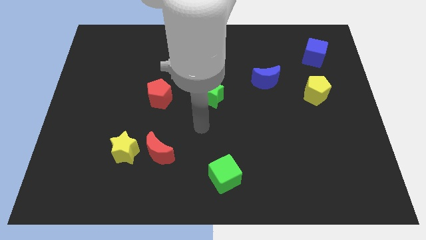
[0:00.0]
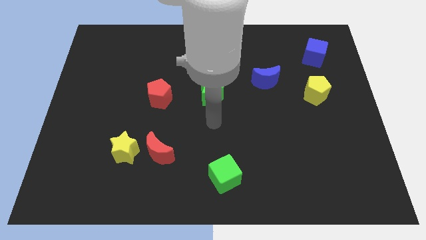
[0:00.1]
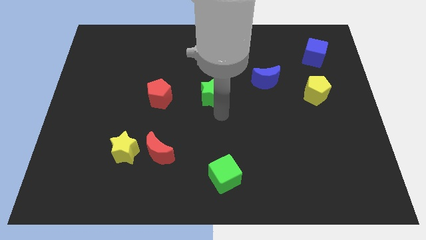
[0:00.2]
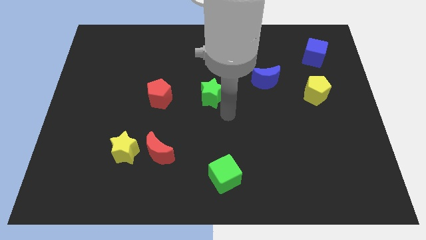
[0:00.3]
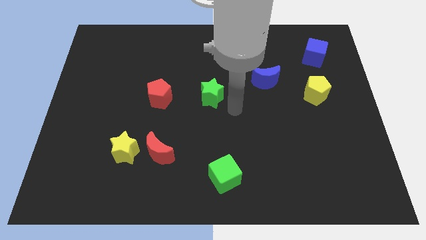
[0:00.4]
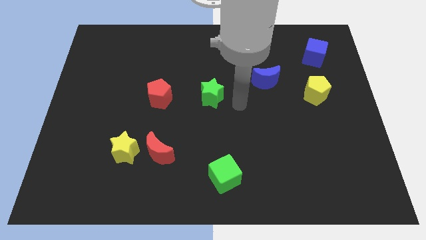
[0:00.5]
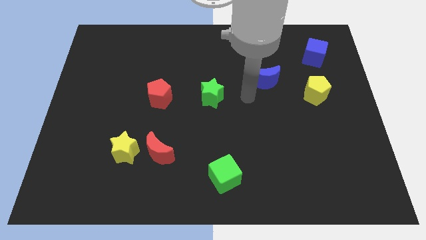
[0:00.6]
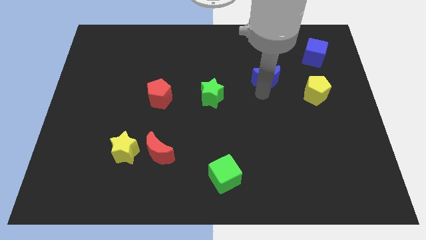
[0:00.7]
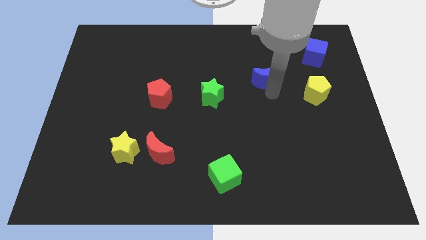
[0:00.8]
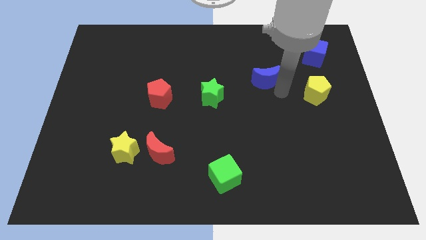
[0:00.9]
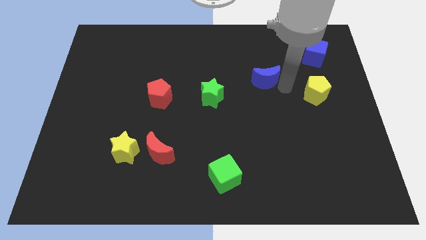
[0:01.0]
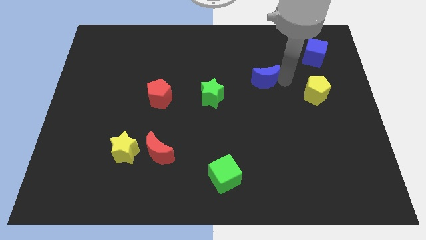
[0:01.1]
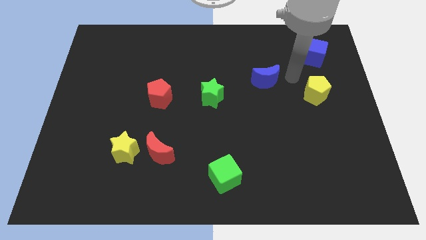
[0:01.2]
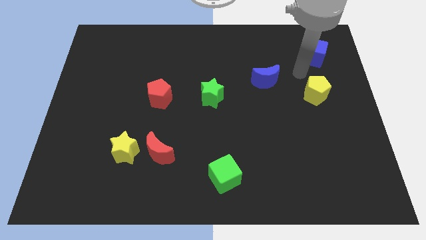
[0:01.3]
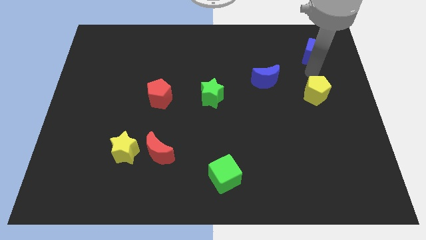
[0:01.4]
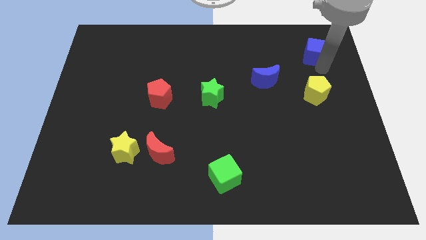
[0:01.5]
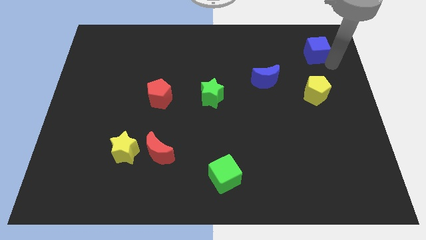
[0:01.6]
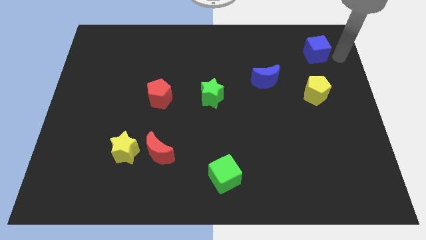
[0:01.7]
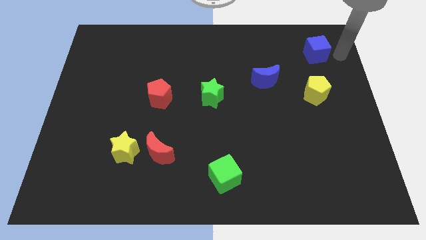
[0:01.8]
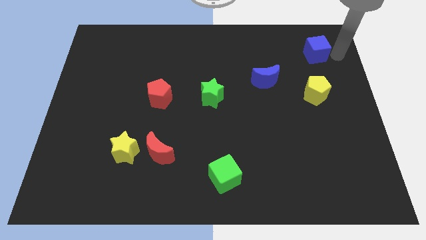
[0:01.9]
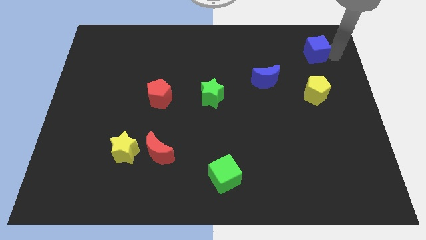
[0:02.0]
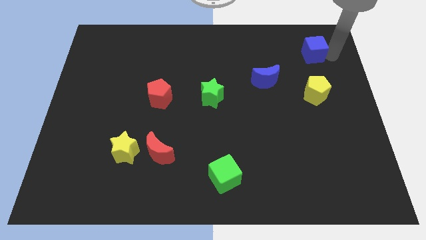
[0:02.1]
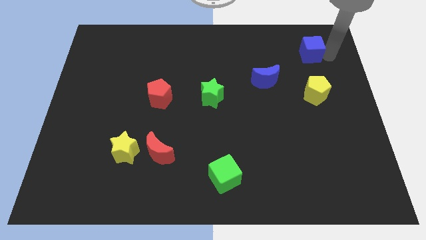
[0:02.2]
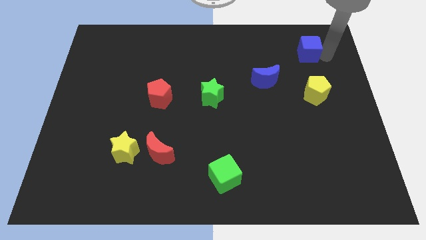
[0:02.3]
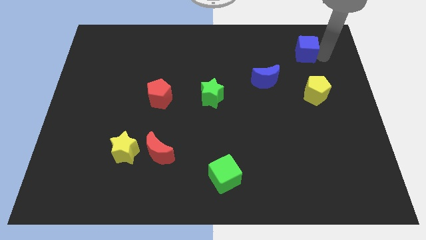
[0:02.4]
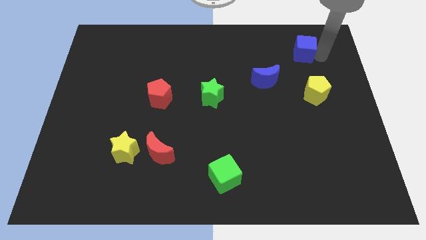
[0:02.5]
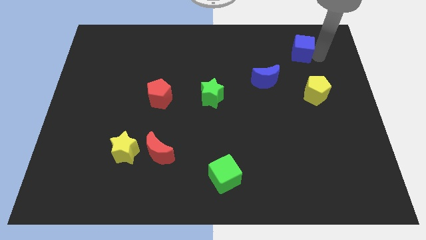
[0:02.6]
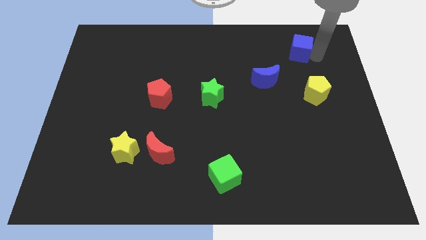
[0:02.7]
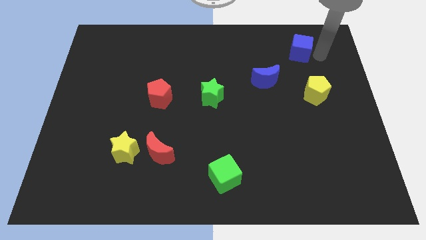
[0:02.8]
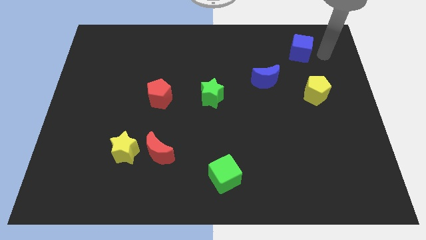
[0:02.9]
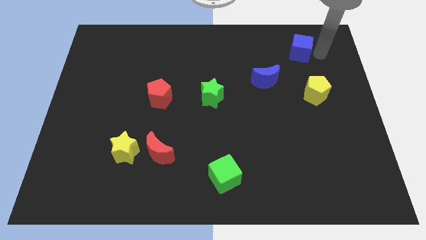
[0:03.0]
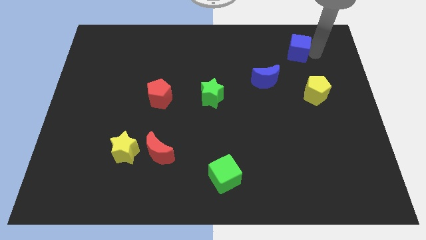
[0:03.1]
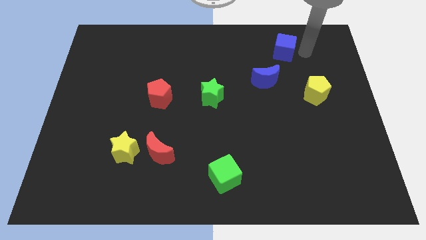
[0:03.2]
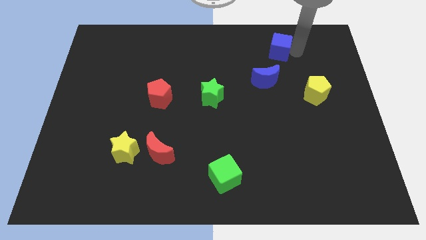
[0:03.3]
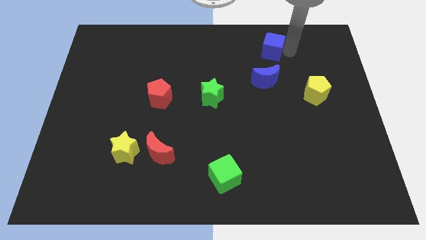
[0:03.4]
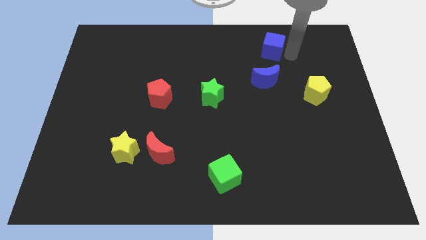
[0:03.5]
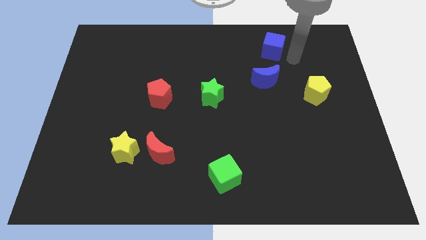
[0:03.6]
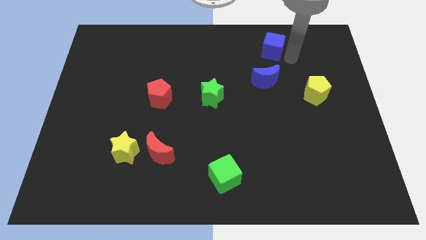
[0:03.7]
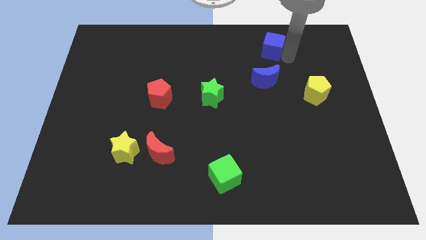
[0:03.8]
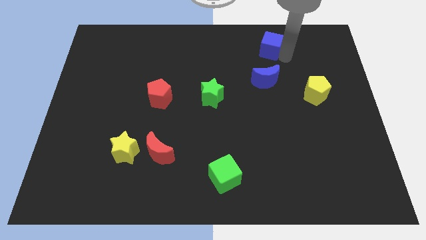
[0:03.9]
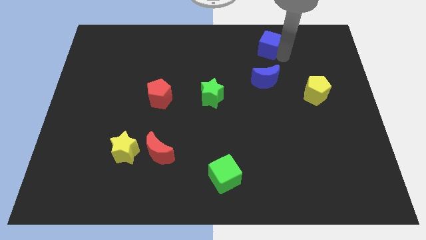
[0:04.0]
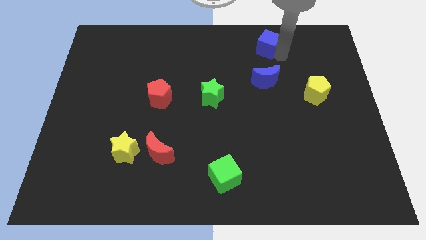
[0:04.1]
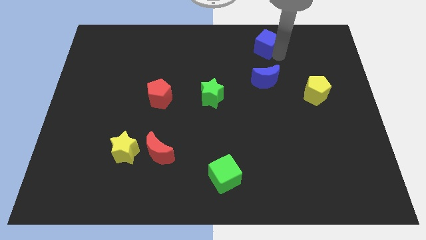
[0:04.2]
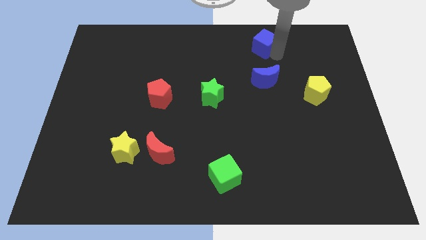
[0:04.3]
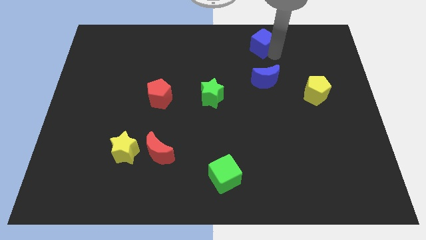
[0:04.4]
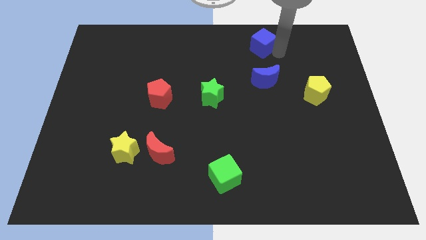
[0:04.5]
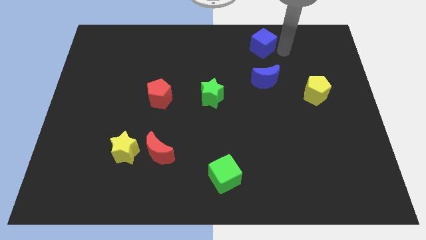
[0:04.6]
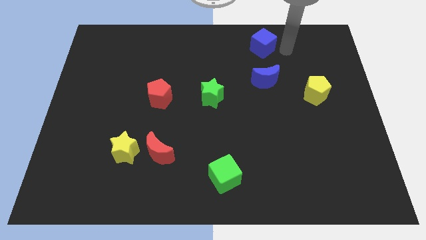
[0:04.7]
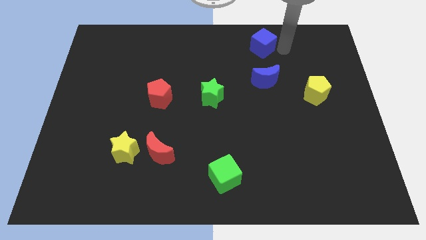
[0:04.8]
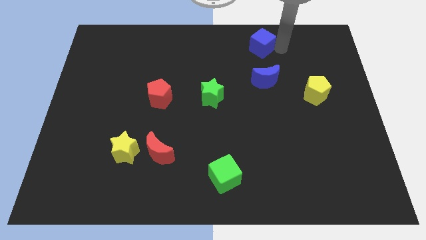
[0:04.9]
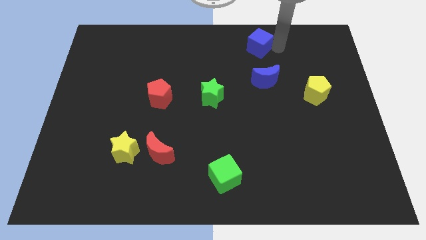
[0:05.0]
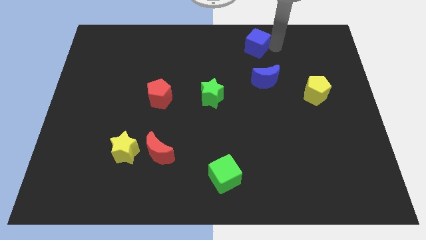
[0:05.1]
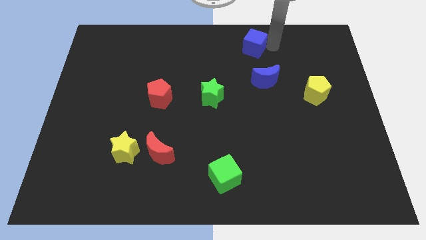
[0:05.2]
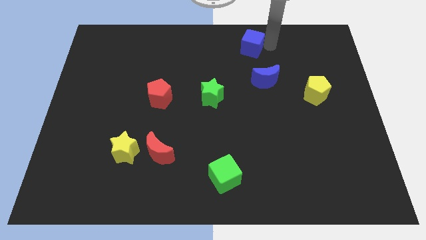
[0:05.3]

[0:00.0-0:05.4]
push the blue cube to the towards your base

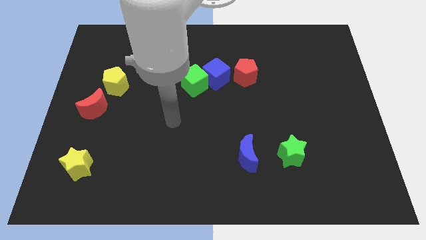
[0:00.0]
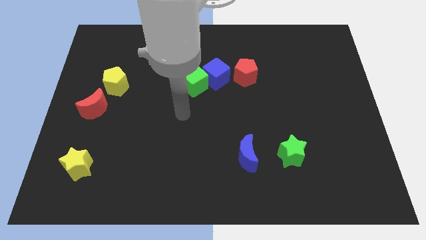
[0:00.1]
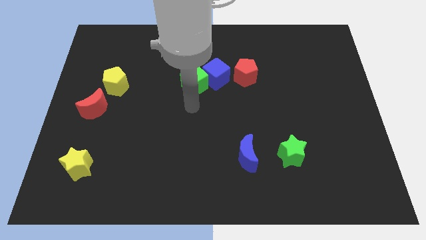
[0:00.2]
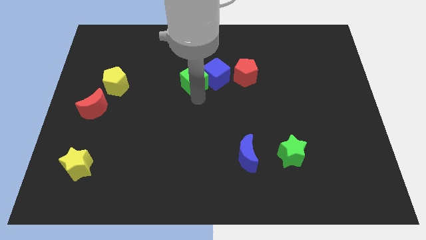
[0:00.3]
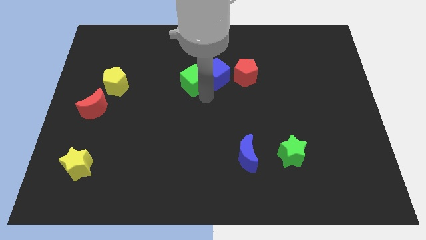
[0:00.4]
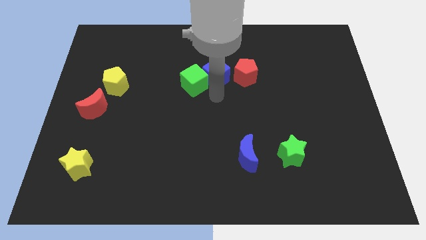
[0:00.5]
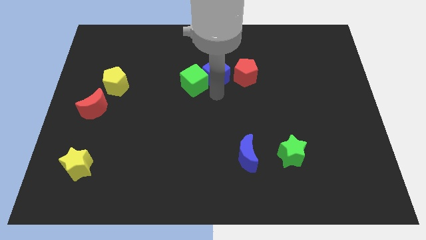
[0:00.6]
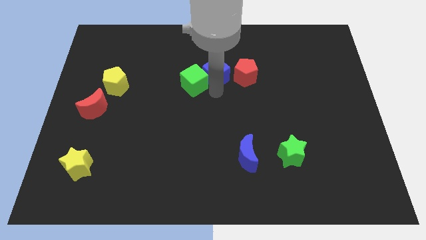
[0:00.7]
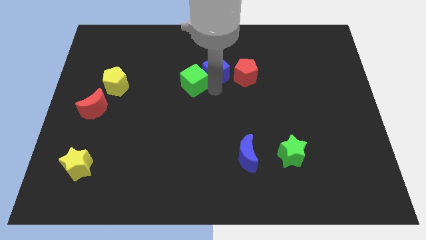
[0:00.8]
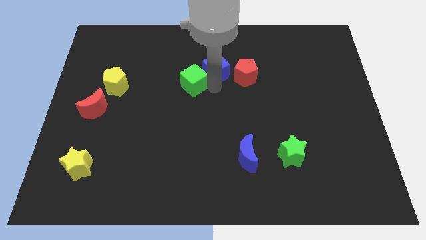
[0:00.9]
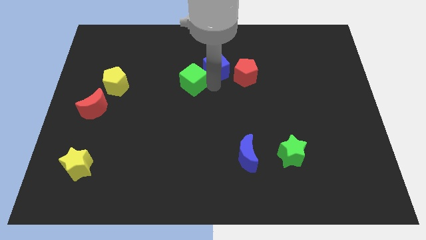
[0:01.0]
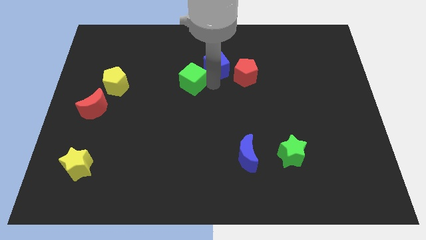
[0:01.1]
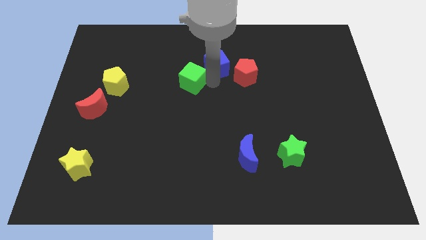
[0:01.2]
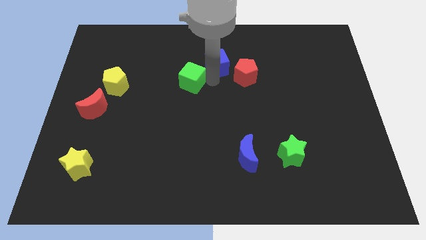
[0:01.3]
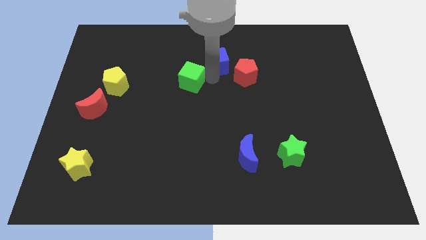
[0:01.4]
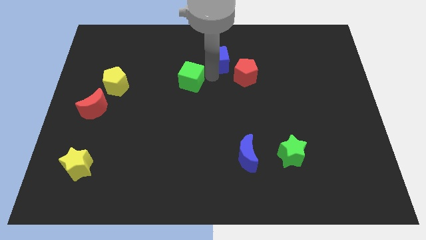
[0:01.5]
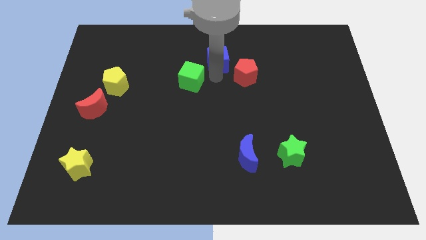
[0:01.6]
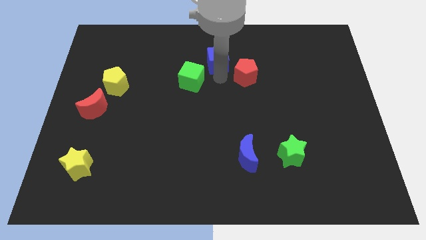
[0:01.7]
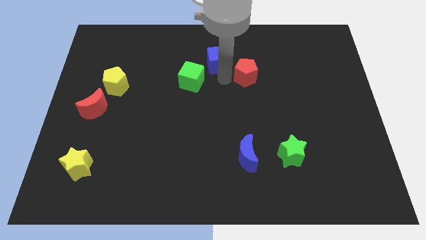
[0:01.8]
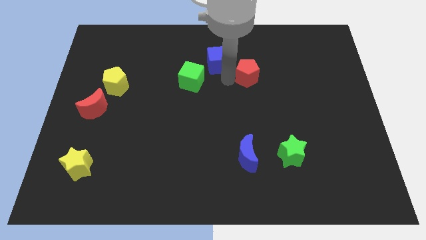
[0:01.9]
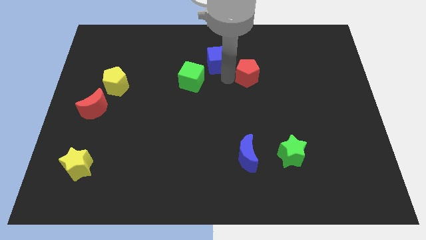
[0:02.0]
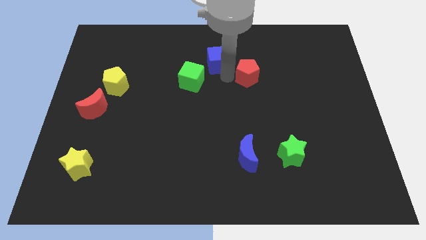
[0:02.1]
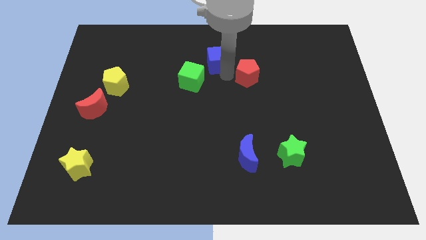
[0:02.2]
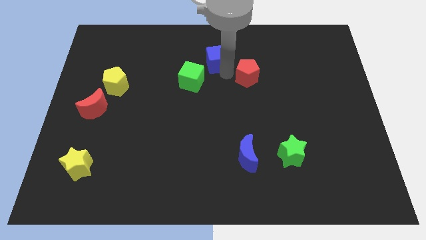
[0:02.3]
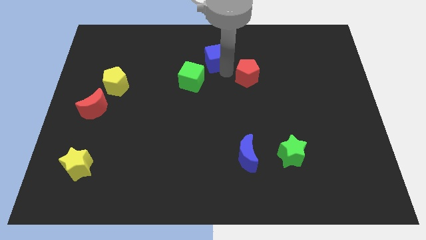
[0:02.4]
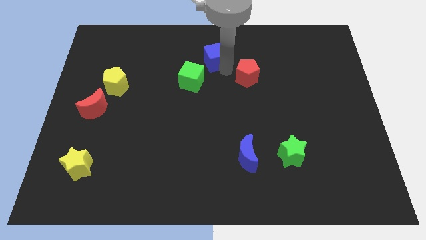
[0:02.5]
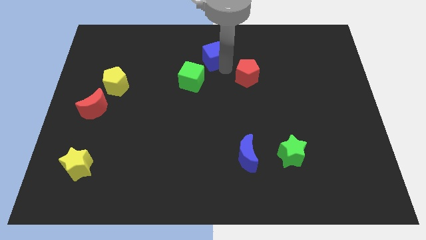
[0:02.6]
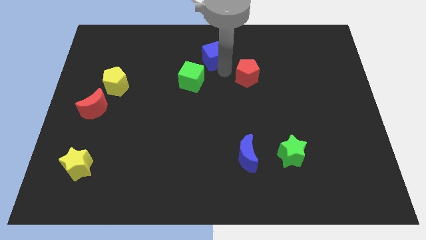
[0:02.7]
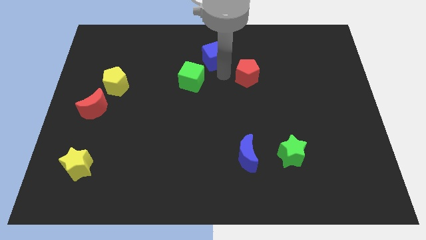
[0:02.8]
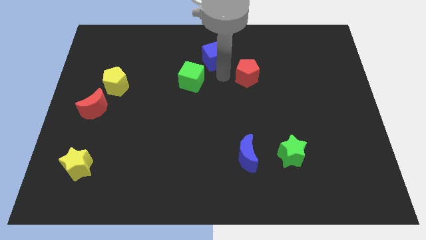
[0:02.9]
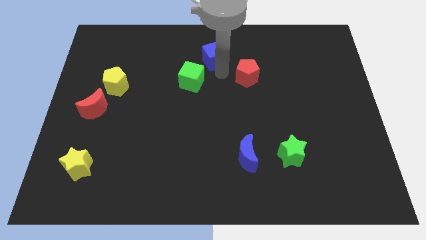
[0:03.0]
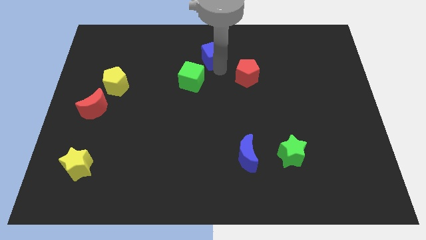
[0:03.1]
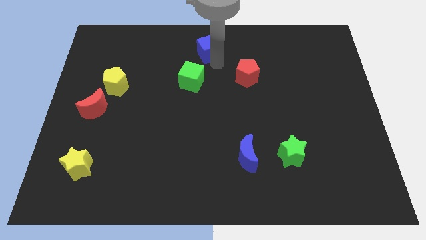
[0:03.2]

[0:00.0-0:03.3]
put the blue cube to the towards your base
